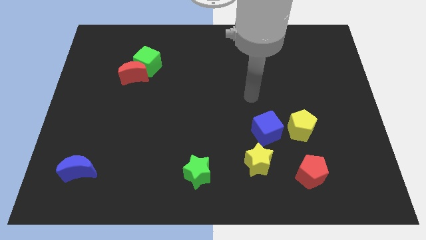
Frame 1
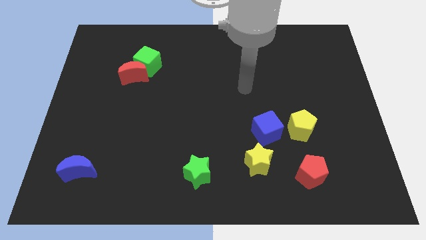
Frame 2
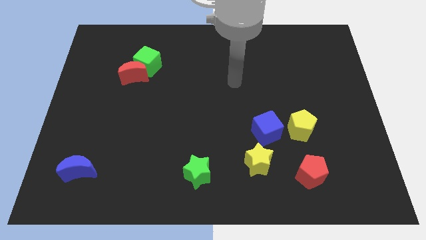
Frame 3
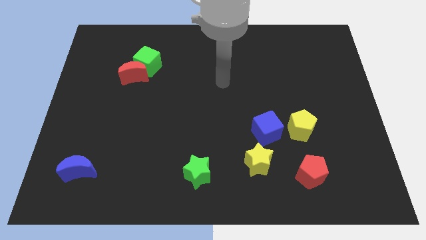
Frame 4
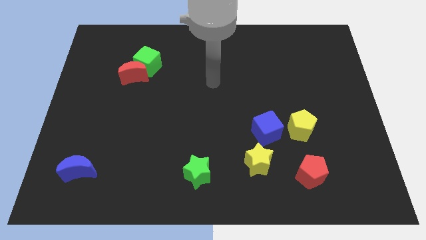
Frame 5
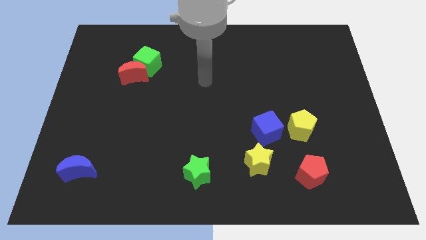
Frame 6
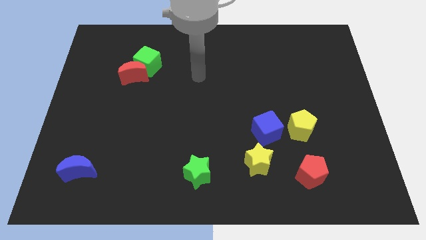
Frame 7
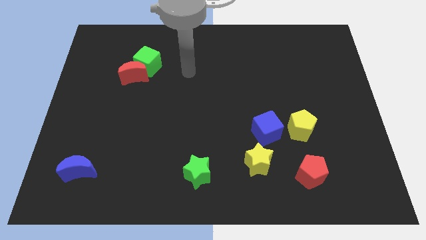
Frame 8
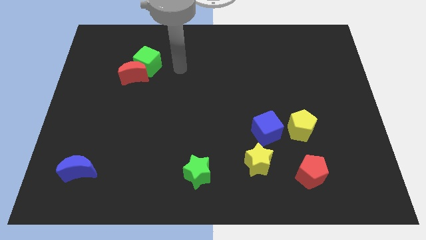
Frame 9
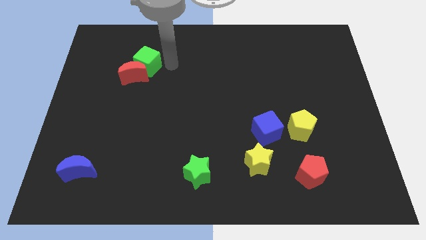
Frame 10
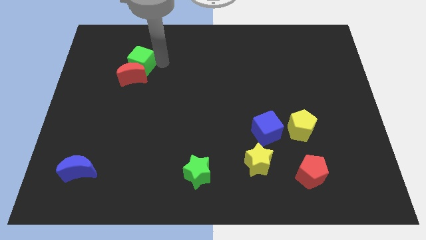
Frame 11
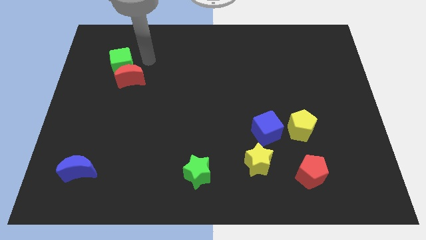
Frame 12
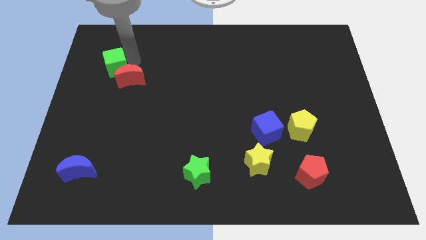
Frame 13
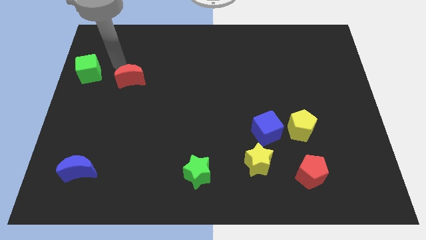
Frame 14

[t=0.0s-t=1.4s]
separate the red moon from the green cube

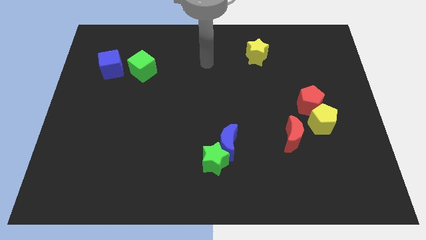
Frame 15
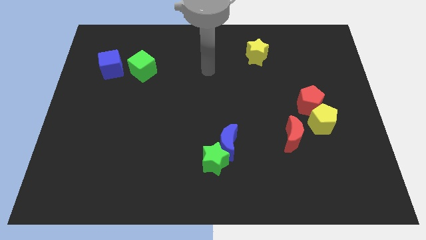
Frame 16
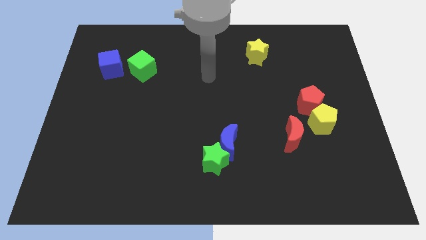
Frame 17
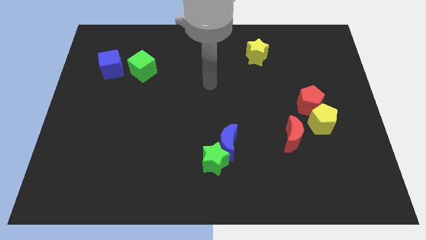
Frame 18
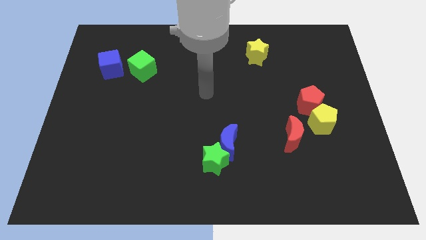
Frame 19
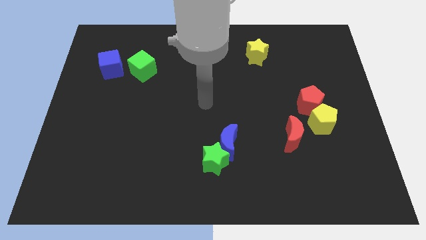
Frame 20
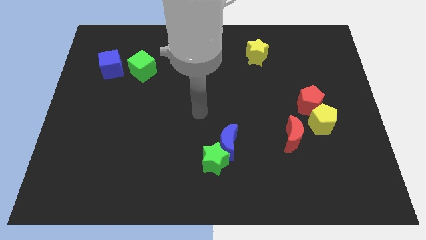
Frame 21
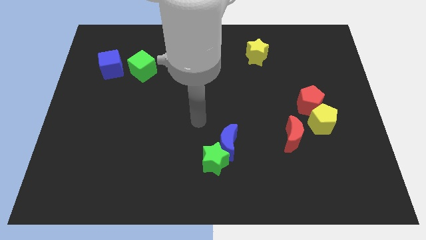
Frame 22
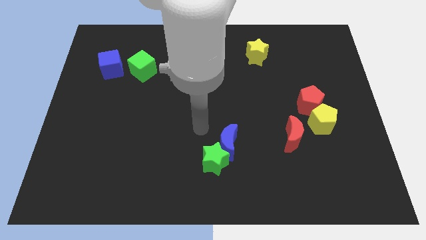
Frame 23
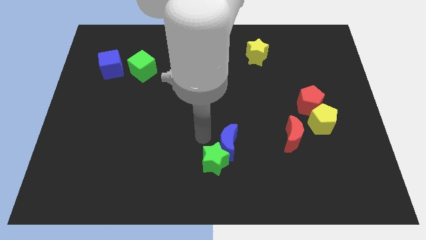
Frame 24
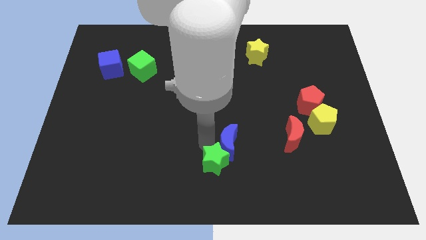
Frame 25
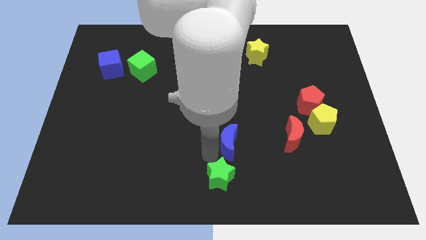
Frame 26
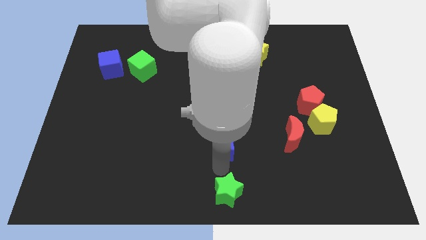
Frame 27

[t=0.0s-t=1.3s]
separate the blue moon from the green star

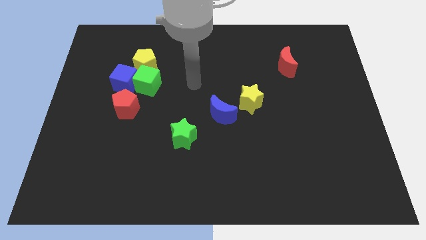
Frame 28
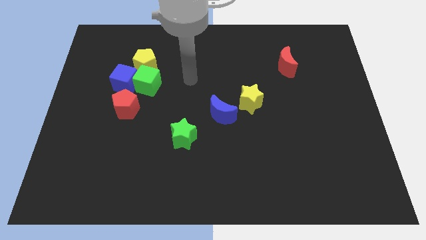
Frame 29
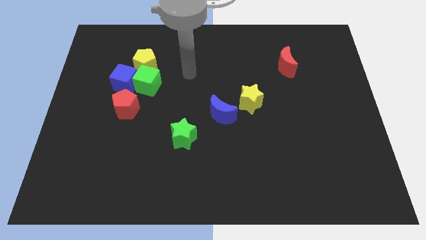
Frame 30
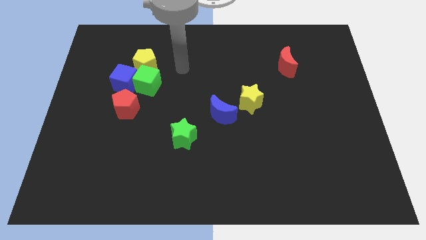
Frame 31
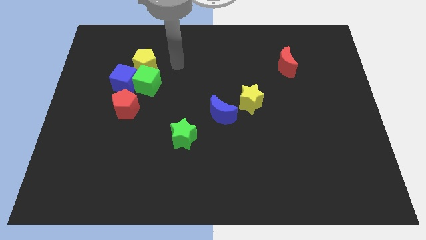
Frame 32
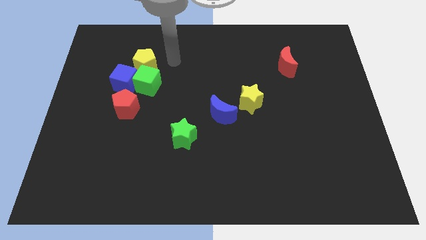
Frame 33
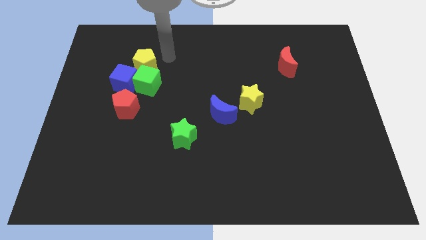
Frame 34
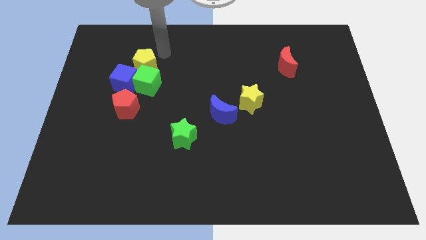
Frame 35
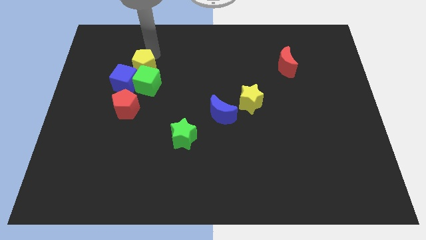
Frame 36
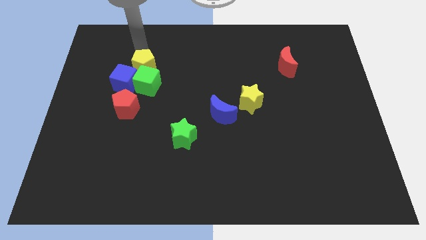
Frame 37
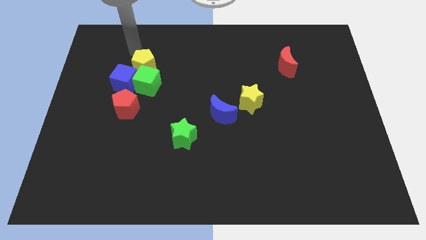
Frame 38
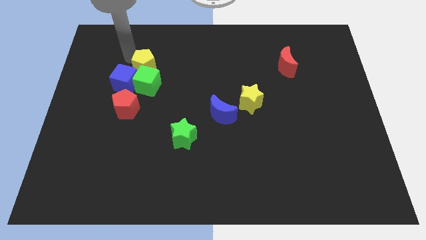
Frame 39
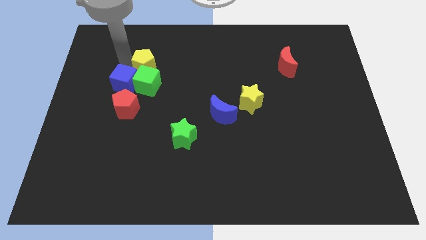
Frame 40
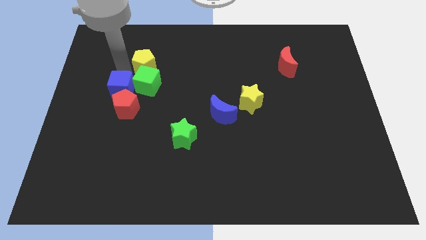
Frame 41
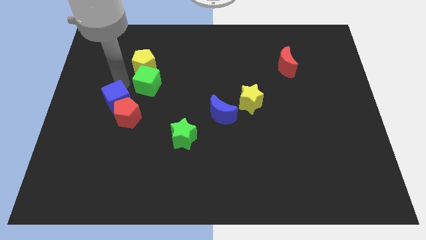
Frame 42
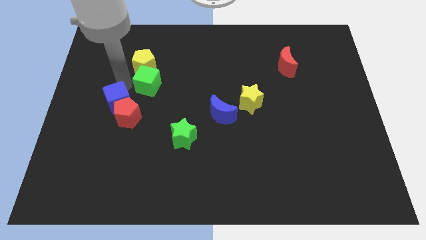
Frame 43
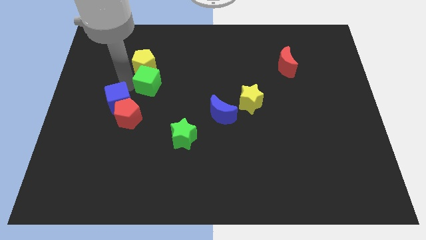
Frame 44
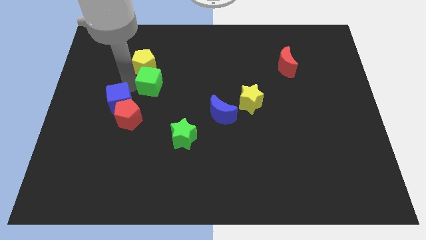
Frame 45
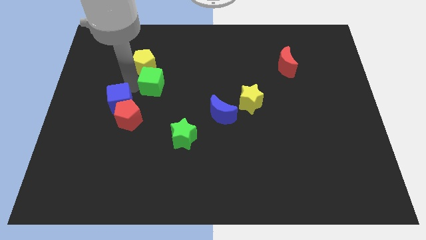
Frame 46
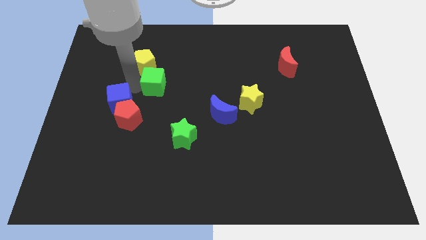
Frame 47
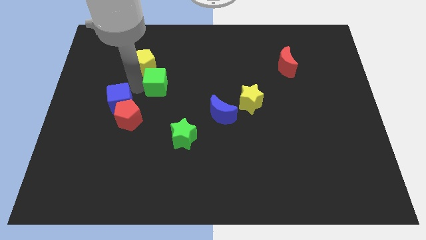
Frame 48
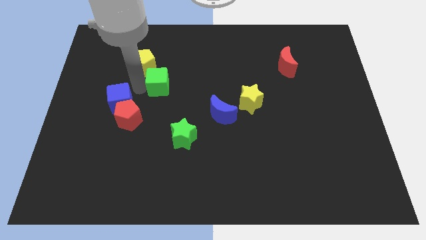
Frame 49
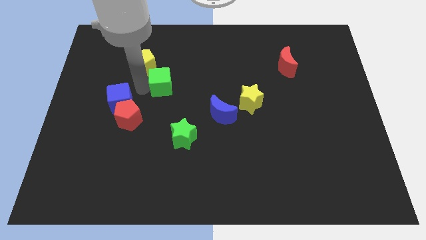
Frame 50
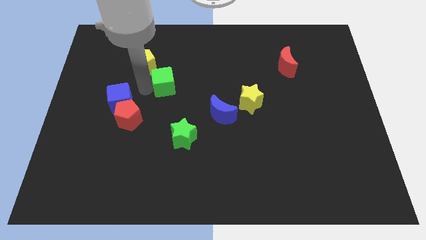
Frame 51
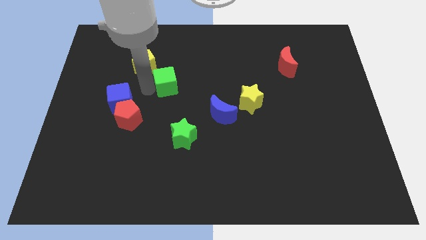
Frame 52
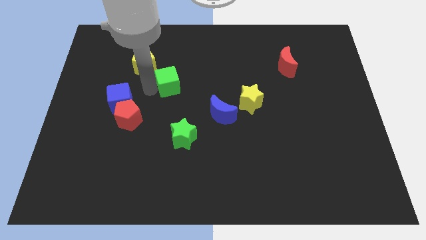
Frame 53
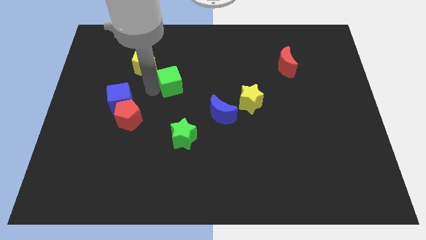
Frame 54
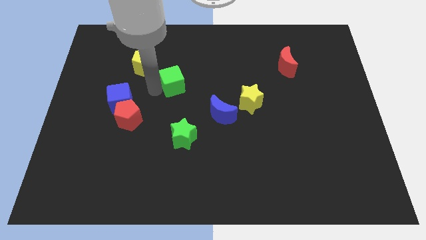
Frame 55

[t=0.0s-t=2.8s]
move the green cube away from the clump

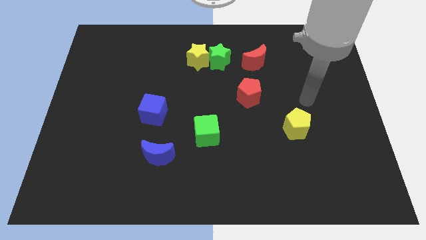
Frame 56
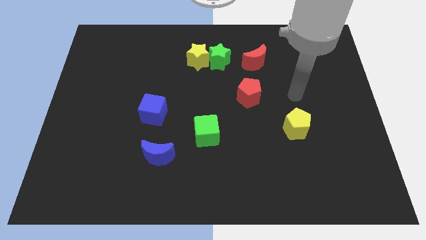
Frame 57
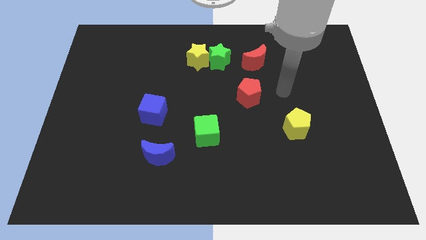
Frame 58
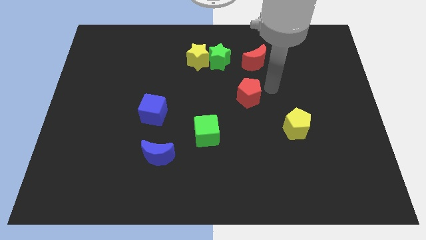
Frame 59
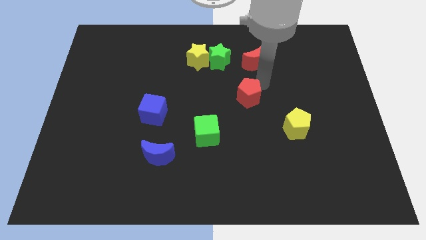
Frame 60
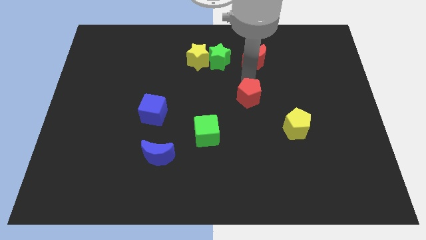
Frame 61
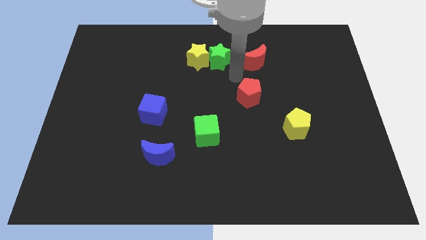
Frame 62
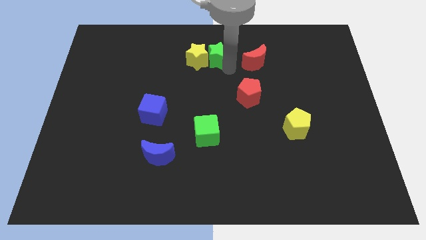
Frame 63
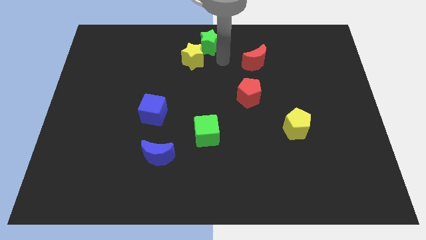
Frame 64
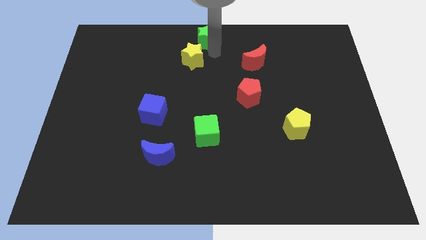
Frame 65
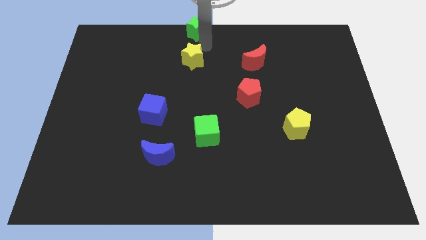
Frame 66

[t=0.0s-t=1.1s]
pull the yellow star apart from the green star

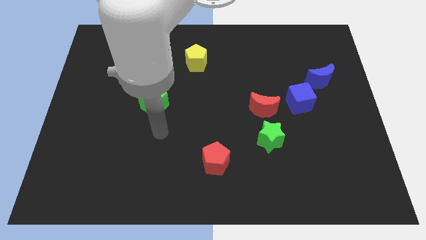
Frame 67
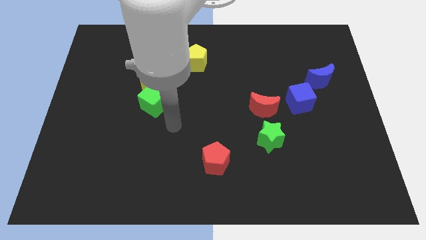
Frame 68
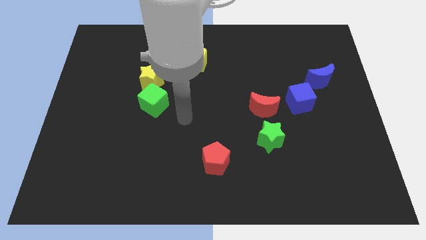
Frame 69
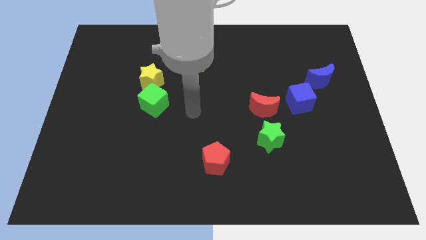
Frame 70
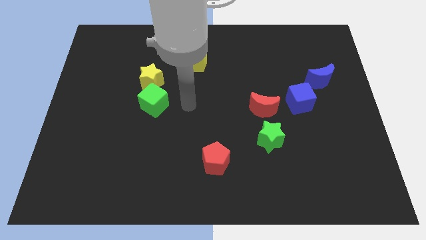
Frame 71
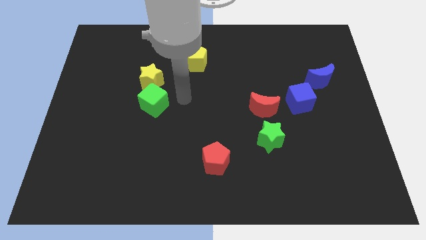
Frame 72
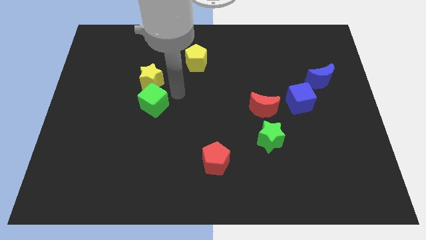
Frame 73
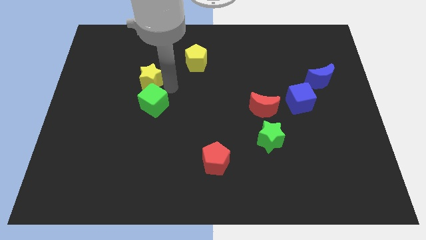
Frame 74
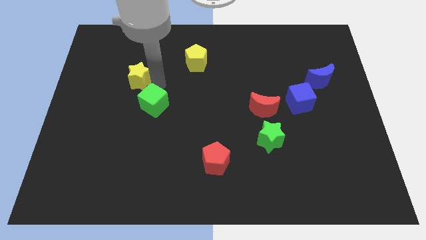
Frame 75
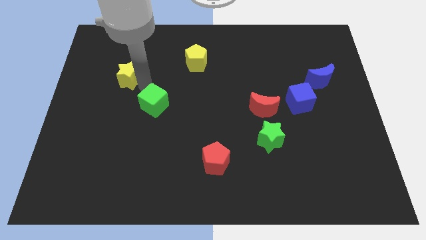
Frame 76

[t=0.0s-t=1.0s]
pull the green cube apart from the yellow star

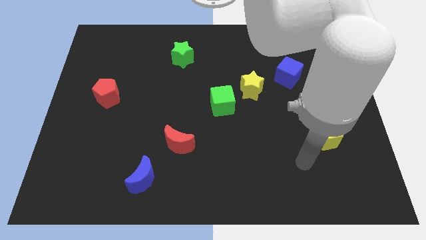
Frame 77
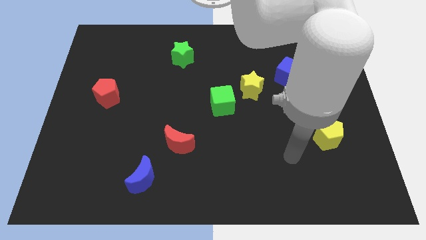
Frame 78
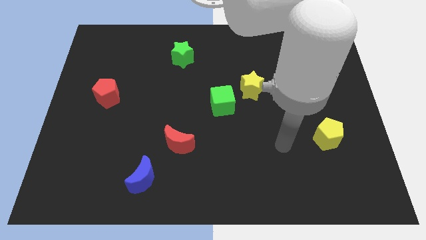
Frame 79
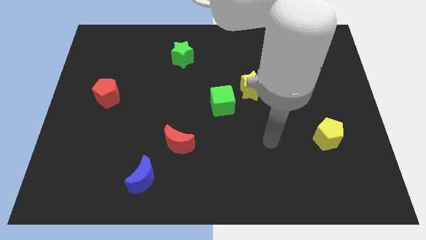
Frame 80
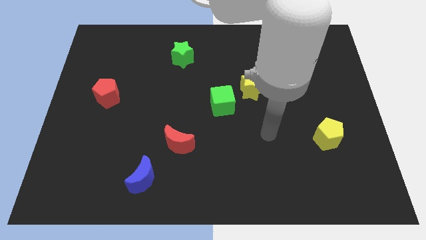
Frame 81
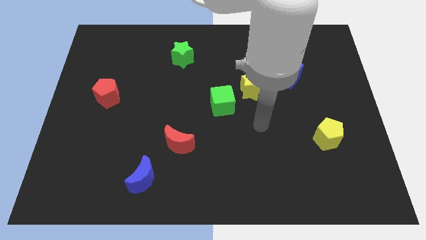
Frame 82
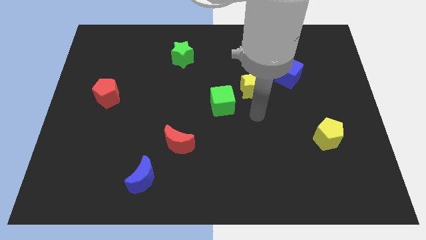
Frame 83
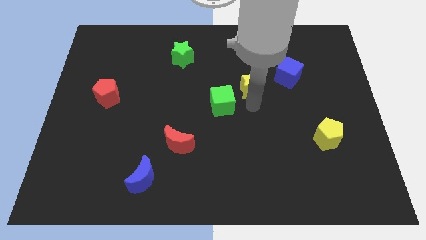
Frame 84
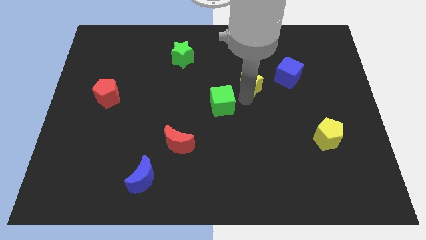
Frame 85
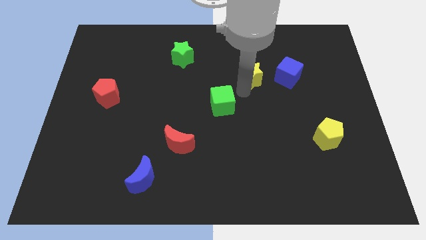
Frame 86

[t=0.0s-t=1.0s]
separate the green cube from the yellow star

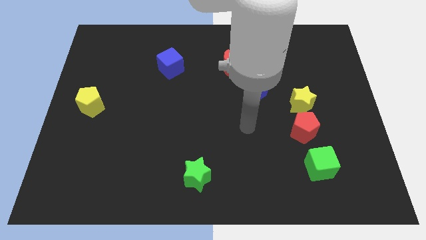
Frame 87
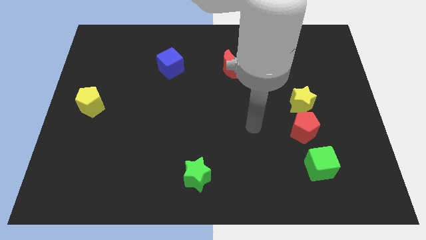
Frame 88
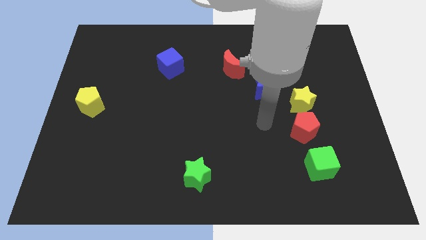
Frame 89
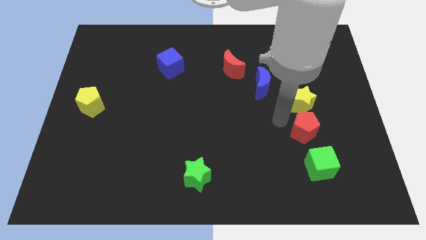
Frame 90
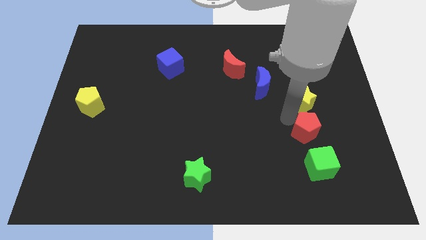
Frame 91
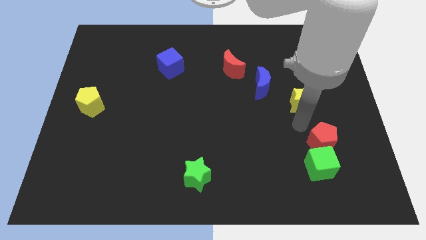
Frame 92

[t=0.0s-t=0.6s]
separate the yellow star from the red pentagon

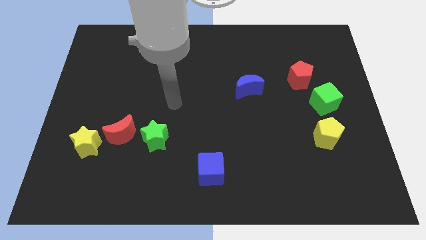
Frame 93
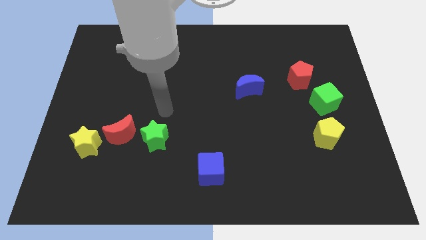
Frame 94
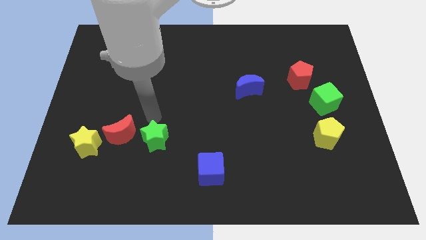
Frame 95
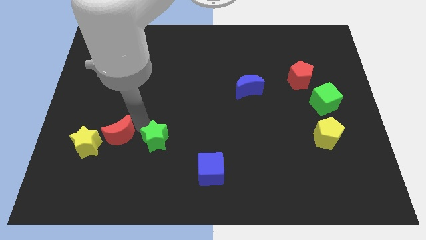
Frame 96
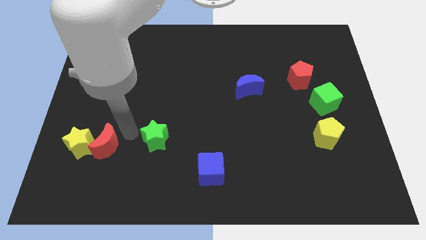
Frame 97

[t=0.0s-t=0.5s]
move the green star away from the red moon
